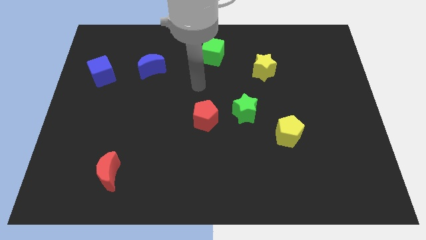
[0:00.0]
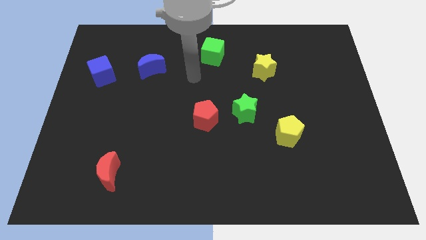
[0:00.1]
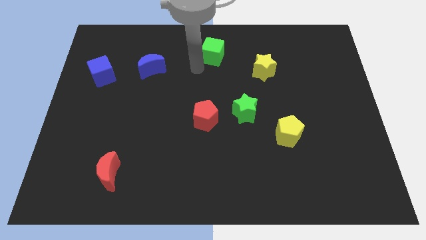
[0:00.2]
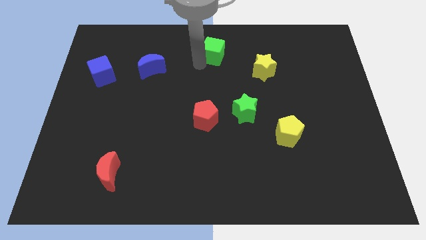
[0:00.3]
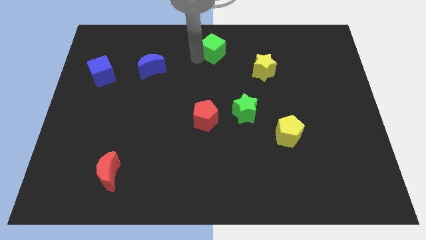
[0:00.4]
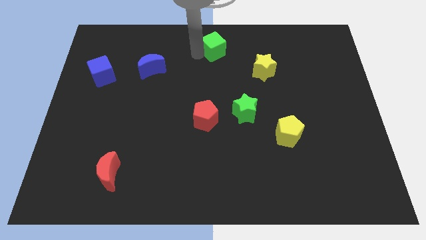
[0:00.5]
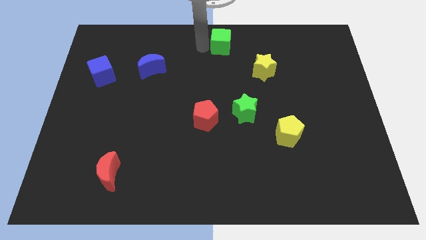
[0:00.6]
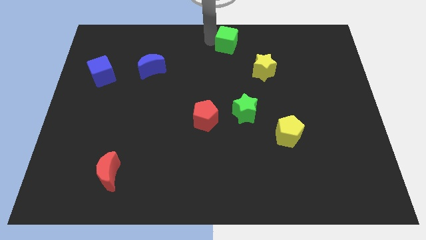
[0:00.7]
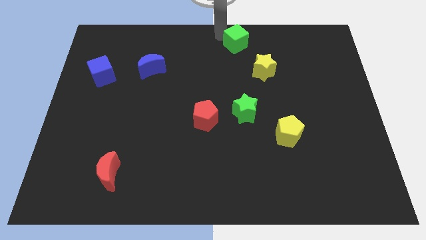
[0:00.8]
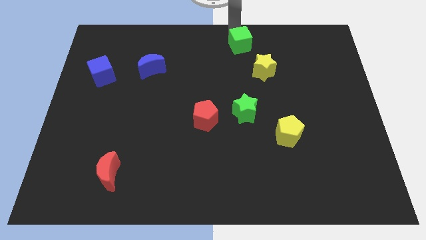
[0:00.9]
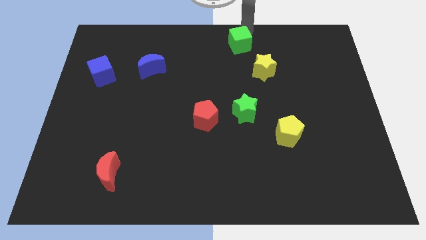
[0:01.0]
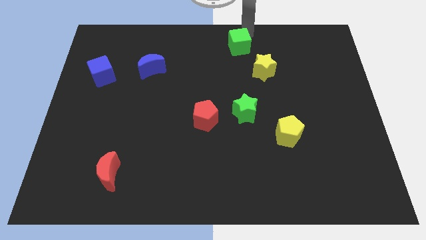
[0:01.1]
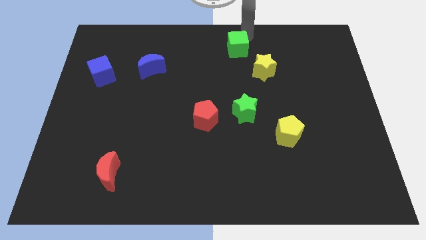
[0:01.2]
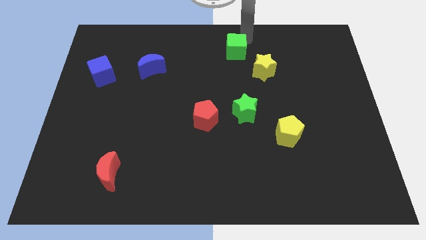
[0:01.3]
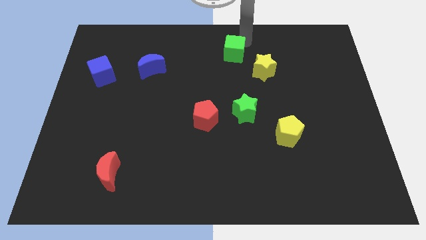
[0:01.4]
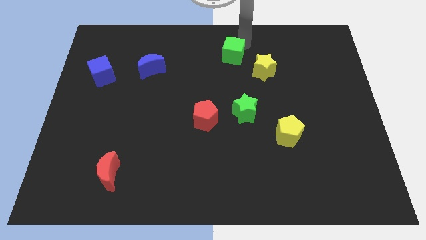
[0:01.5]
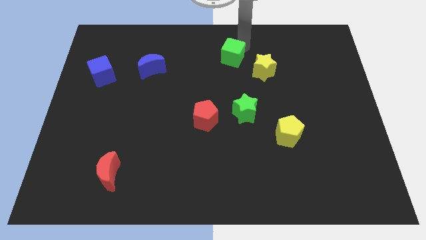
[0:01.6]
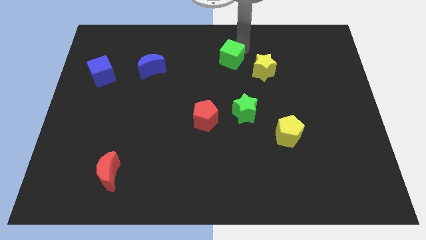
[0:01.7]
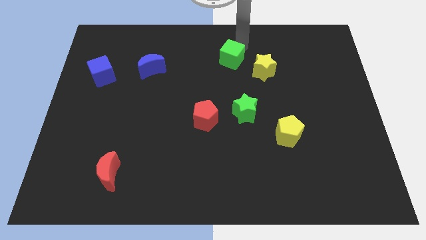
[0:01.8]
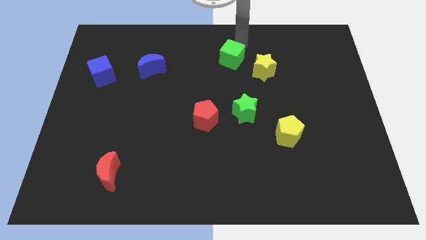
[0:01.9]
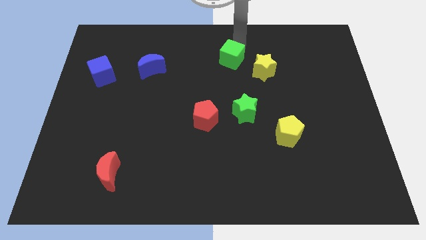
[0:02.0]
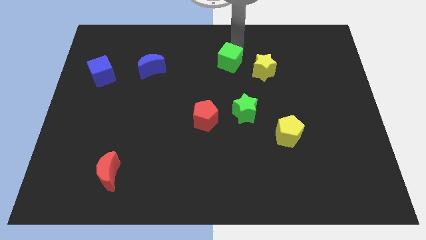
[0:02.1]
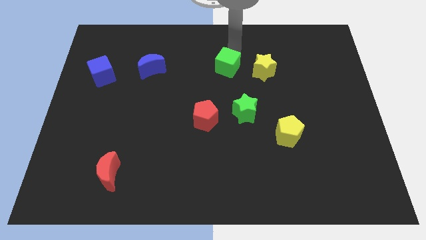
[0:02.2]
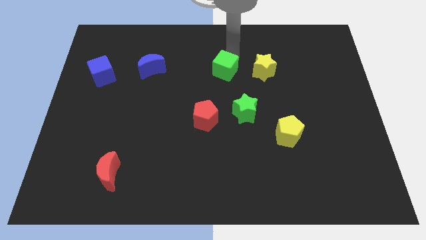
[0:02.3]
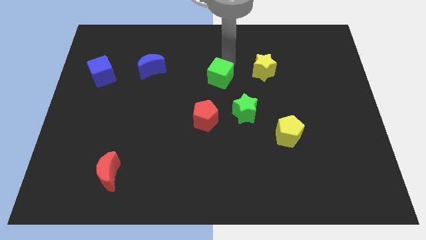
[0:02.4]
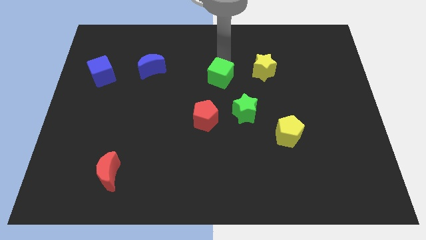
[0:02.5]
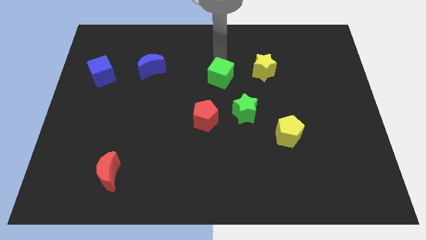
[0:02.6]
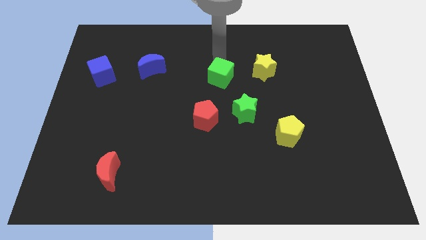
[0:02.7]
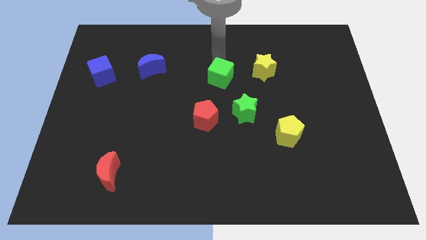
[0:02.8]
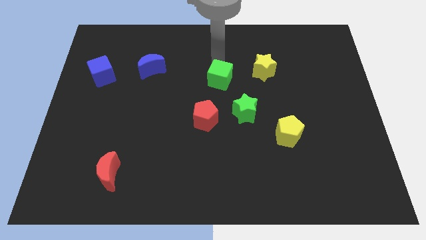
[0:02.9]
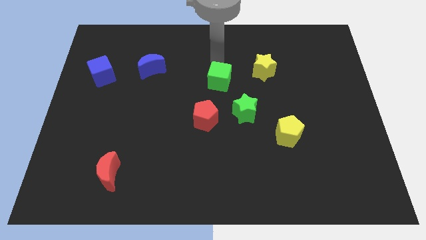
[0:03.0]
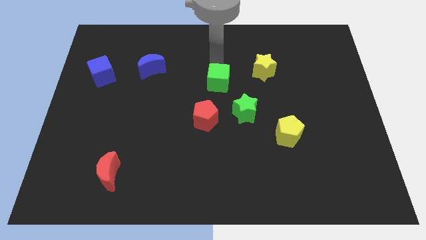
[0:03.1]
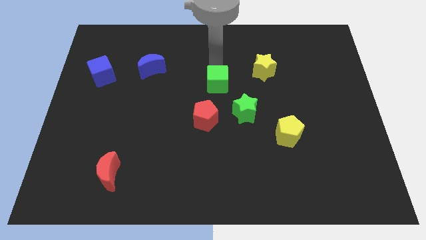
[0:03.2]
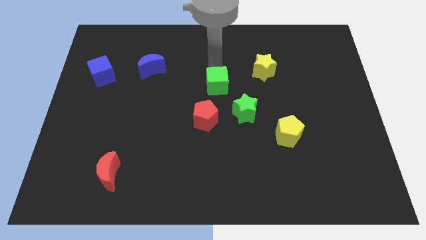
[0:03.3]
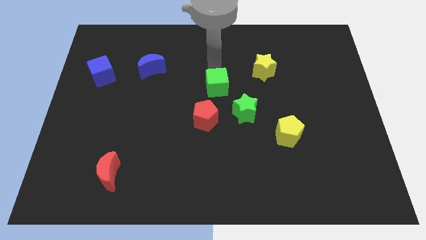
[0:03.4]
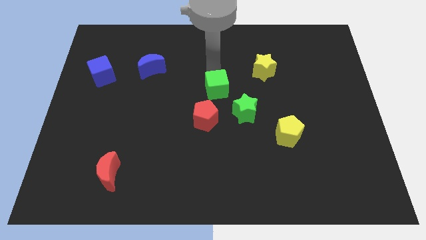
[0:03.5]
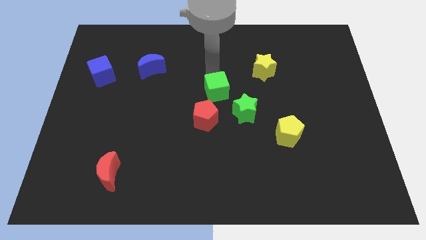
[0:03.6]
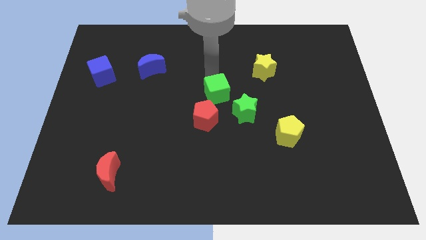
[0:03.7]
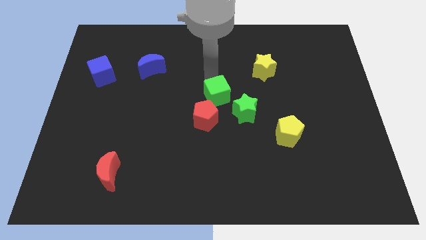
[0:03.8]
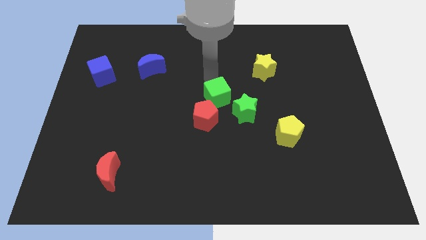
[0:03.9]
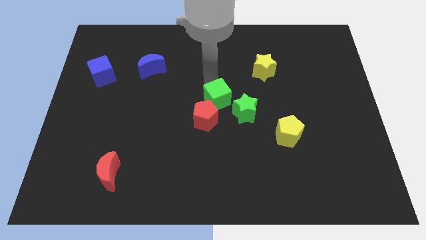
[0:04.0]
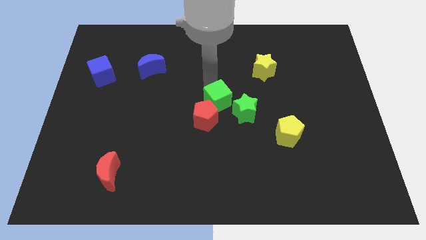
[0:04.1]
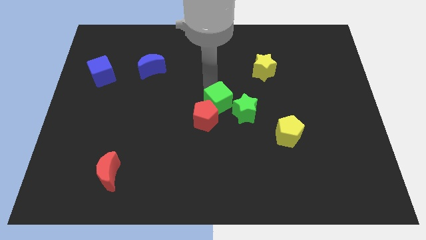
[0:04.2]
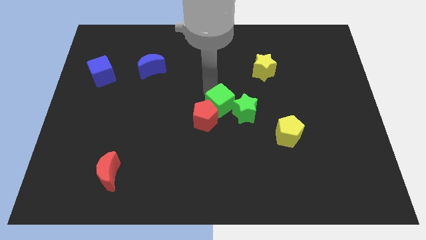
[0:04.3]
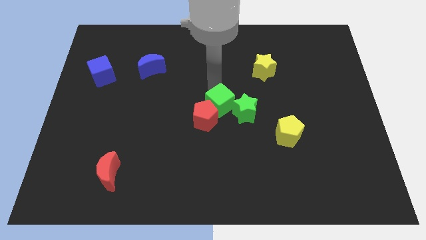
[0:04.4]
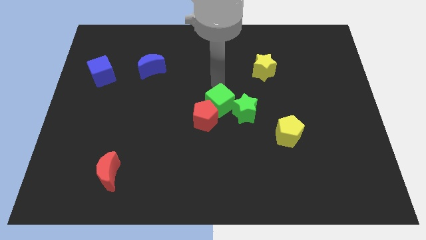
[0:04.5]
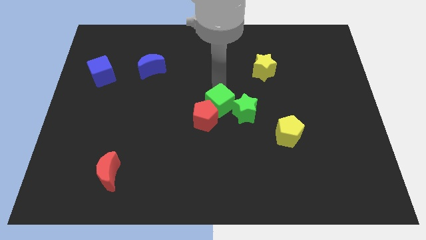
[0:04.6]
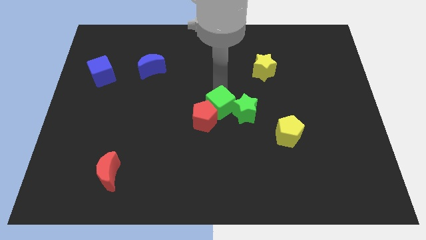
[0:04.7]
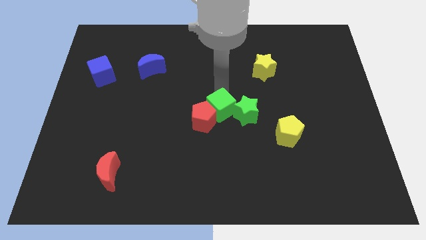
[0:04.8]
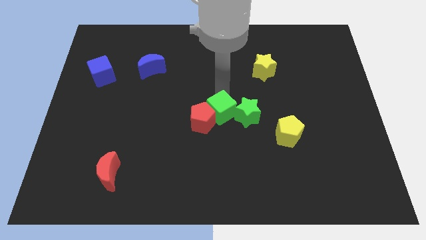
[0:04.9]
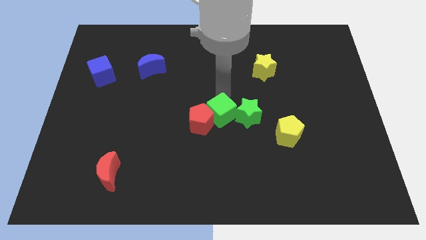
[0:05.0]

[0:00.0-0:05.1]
move the green cube to the bottom left side of the green star

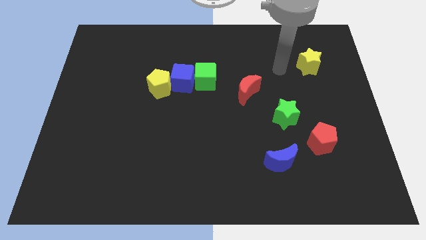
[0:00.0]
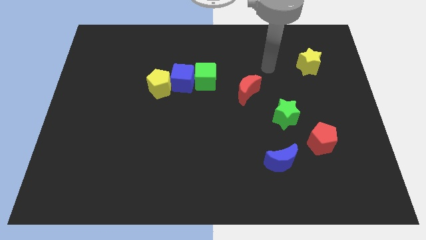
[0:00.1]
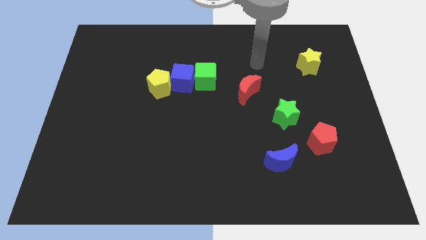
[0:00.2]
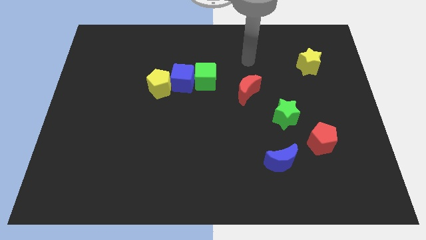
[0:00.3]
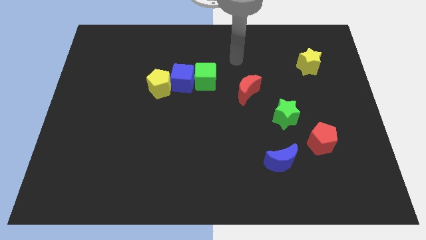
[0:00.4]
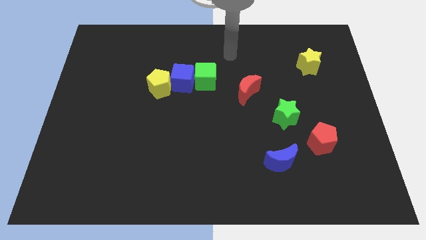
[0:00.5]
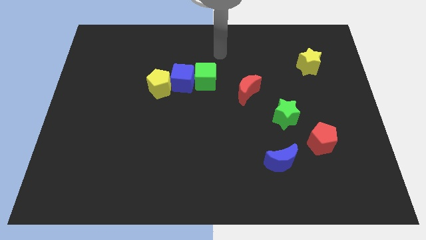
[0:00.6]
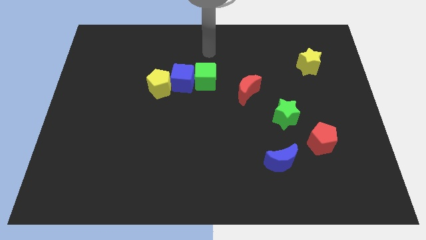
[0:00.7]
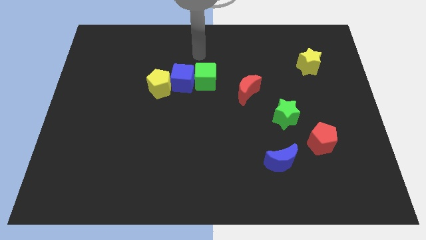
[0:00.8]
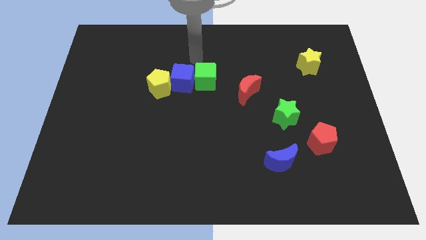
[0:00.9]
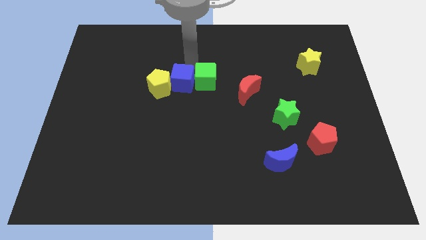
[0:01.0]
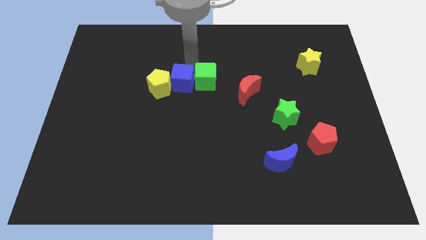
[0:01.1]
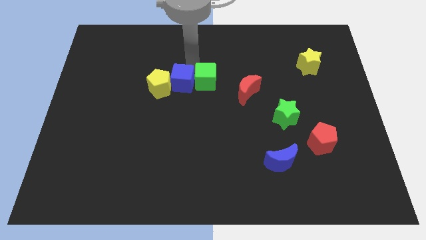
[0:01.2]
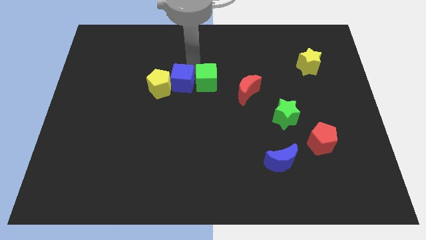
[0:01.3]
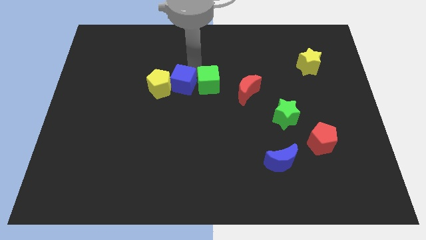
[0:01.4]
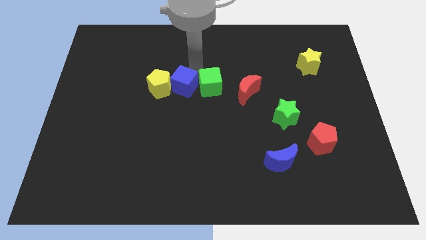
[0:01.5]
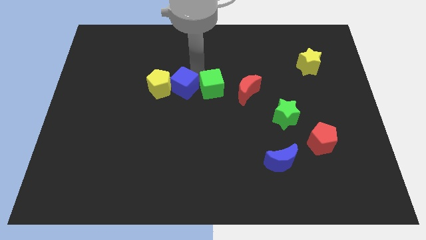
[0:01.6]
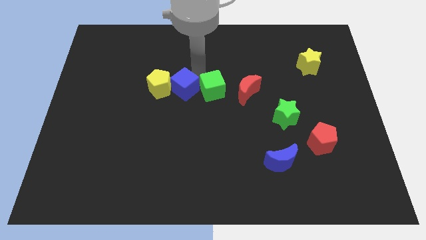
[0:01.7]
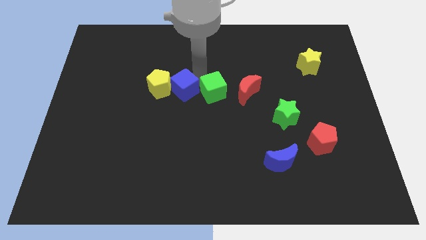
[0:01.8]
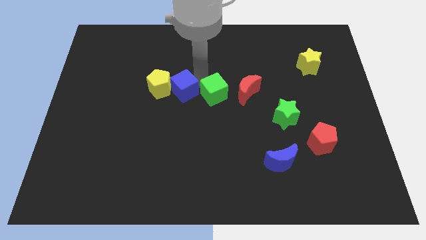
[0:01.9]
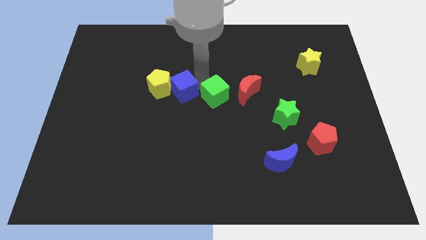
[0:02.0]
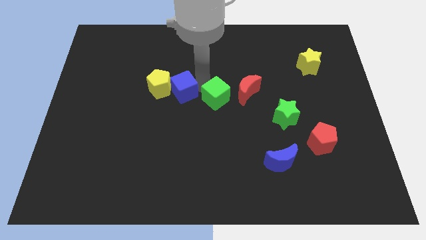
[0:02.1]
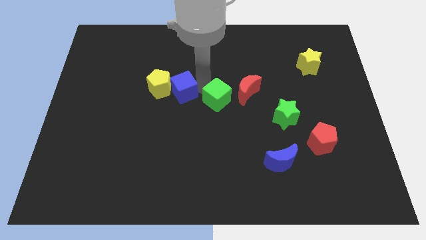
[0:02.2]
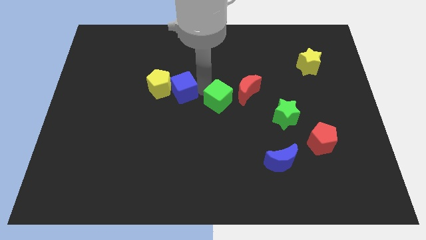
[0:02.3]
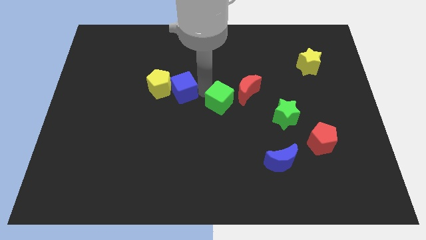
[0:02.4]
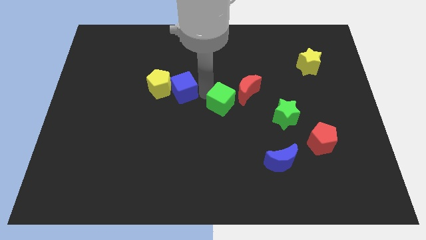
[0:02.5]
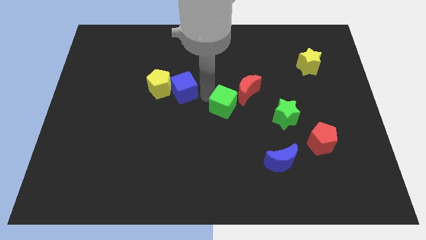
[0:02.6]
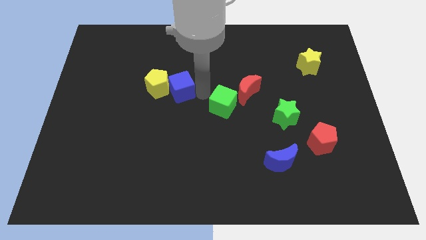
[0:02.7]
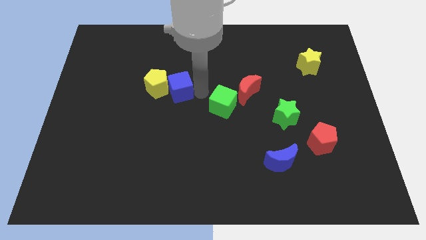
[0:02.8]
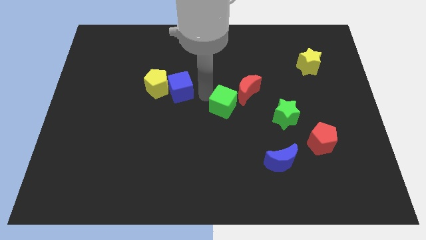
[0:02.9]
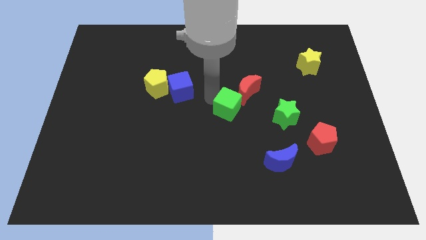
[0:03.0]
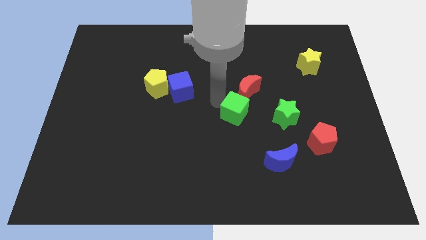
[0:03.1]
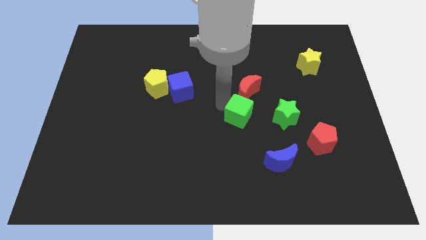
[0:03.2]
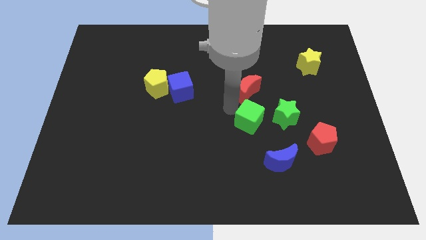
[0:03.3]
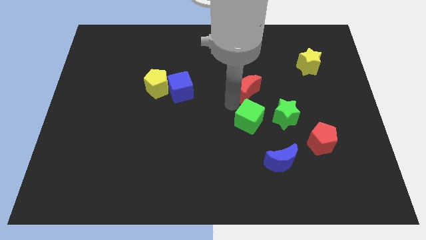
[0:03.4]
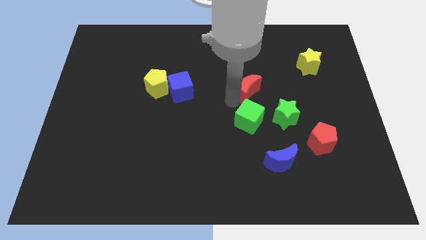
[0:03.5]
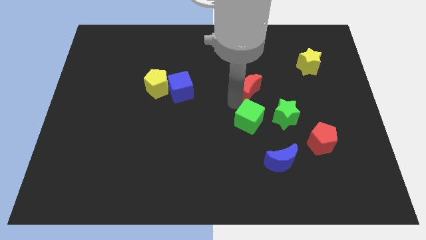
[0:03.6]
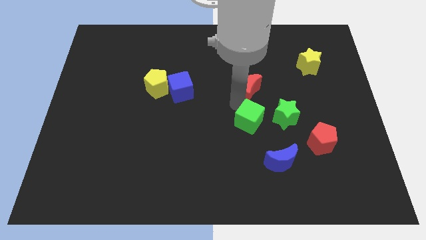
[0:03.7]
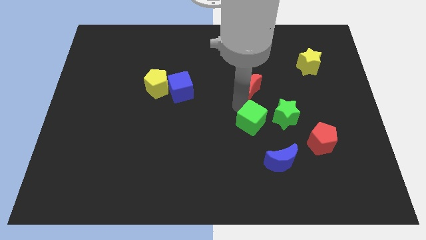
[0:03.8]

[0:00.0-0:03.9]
put the green cube to the bottom left side of the green star
